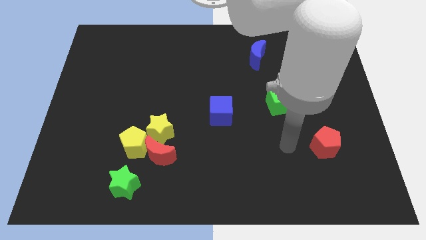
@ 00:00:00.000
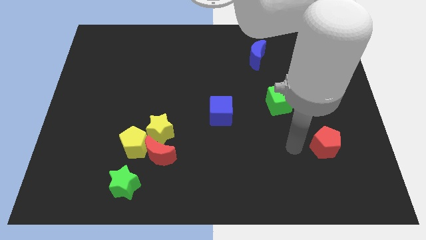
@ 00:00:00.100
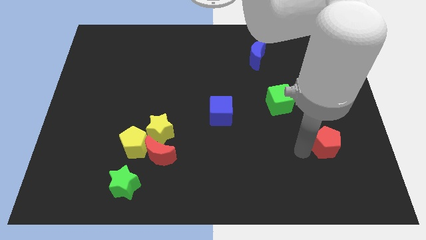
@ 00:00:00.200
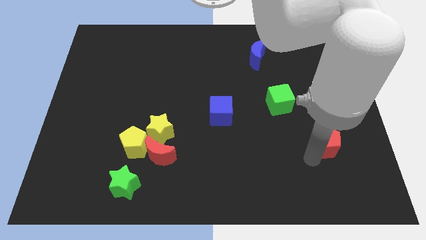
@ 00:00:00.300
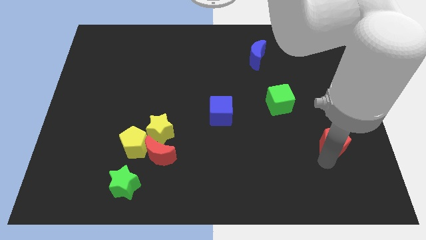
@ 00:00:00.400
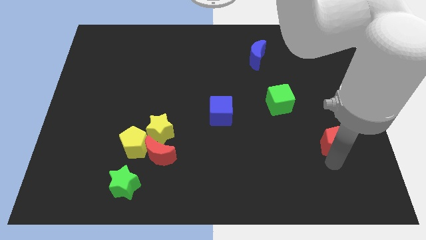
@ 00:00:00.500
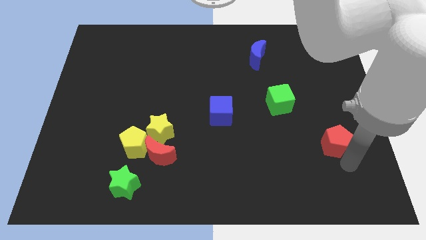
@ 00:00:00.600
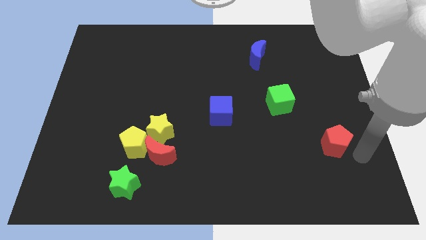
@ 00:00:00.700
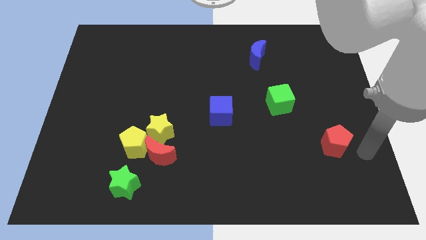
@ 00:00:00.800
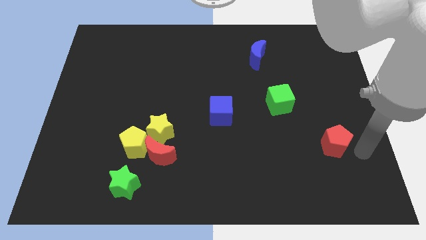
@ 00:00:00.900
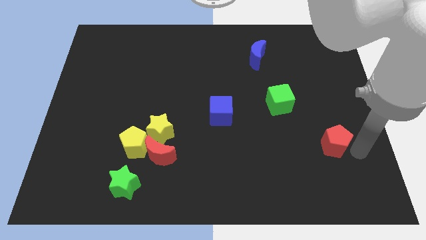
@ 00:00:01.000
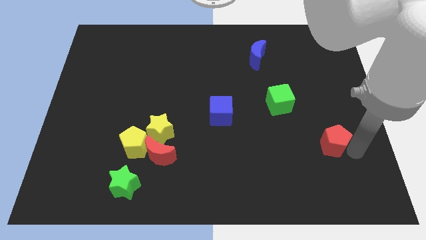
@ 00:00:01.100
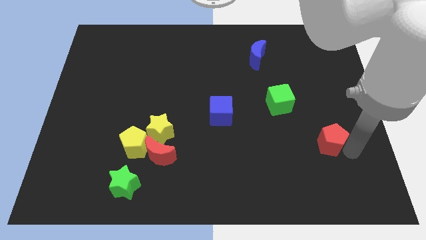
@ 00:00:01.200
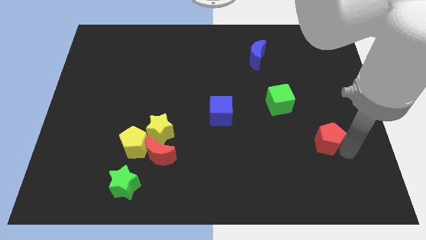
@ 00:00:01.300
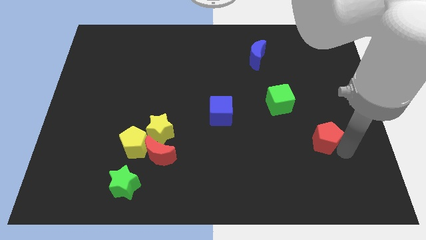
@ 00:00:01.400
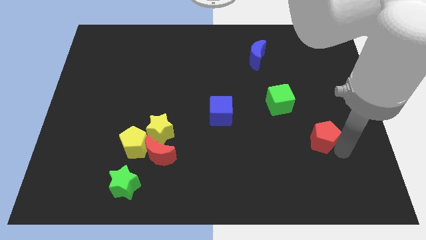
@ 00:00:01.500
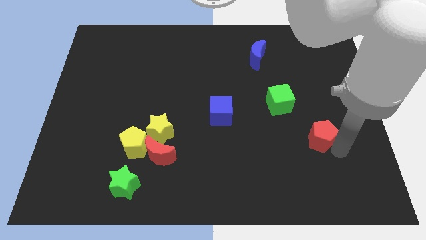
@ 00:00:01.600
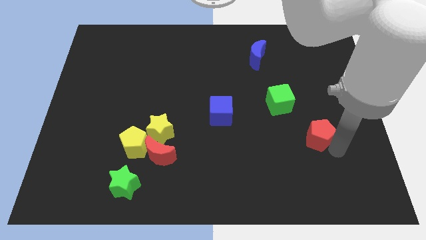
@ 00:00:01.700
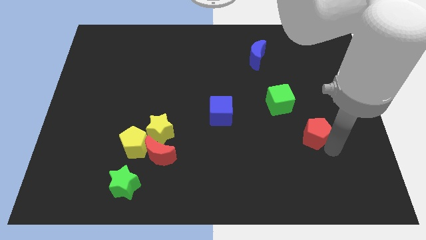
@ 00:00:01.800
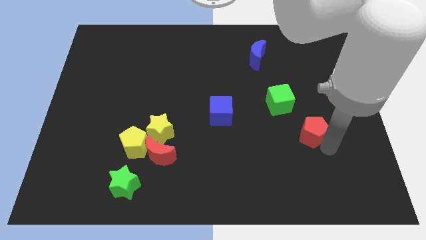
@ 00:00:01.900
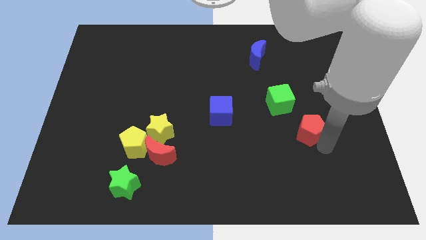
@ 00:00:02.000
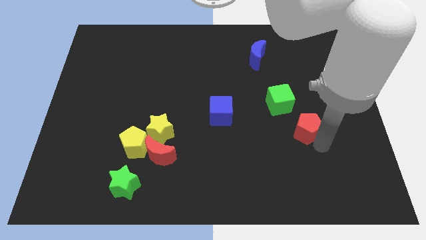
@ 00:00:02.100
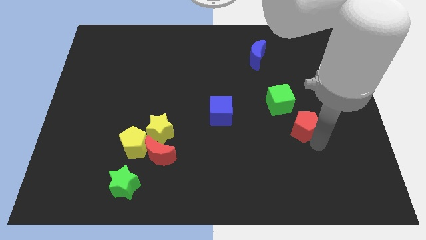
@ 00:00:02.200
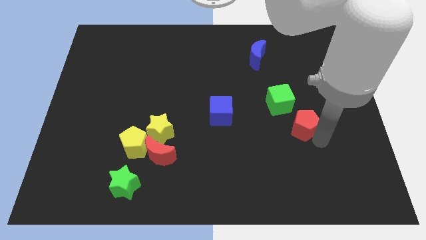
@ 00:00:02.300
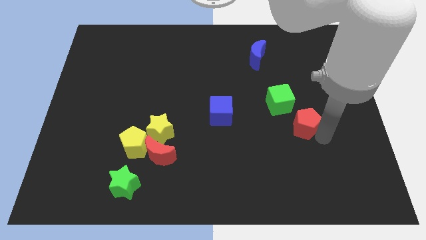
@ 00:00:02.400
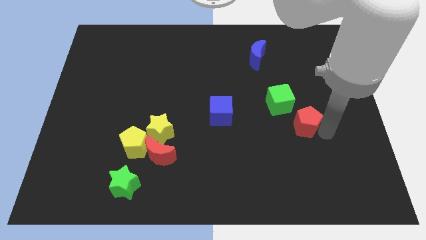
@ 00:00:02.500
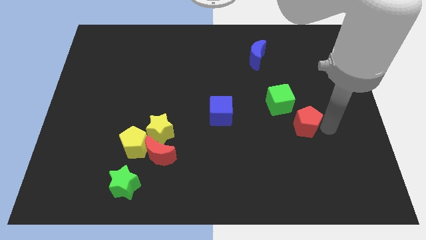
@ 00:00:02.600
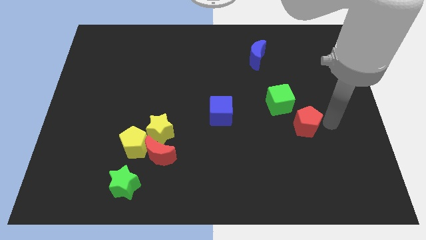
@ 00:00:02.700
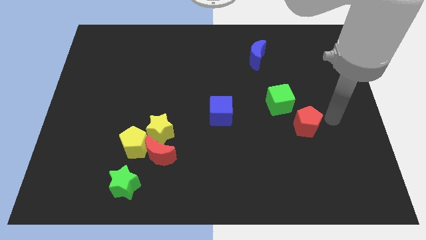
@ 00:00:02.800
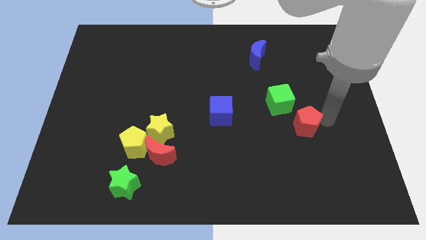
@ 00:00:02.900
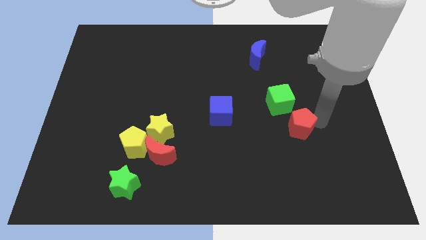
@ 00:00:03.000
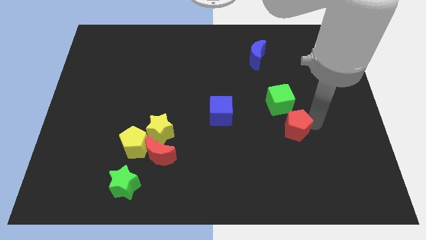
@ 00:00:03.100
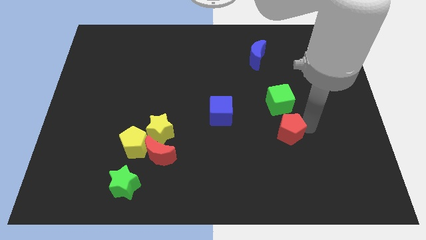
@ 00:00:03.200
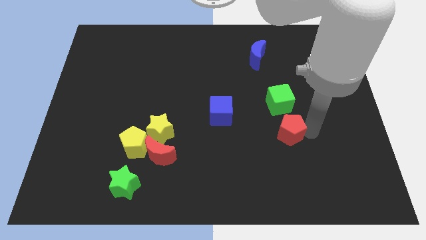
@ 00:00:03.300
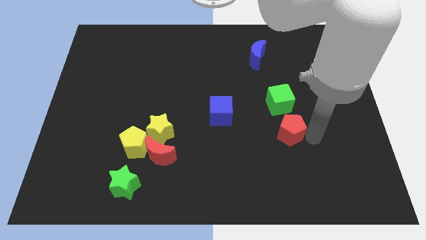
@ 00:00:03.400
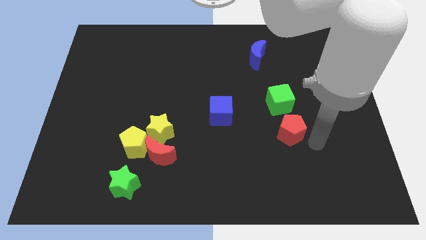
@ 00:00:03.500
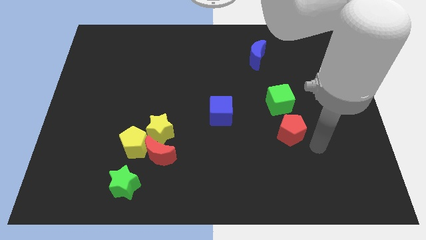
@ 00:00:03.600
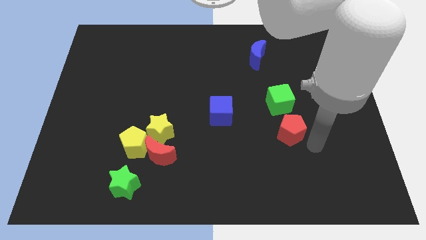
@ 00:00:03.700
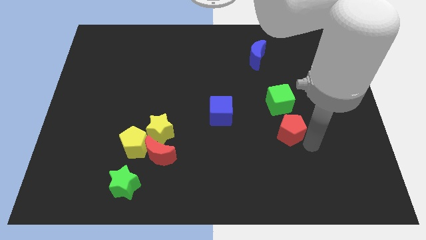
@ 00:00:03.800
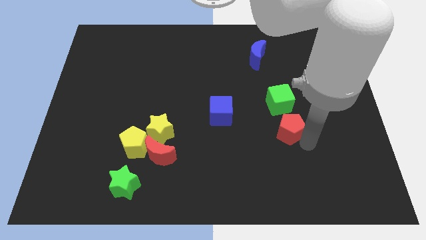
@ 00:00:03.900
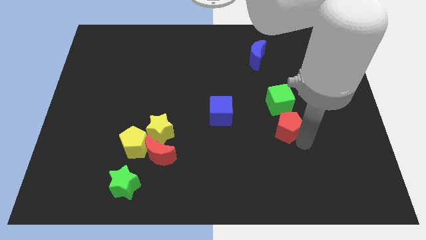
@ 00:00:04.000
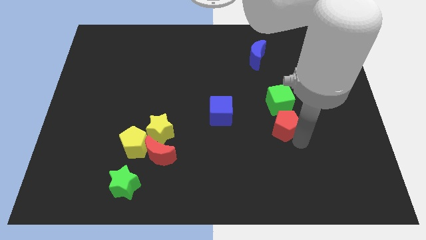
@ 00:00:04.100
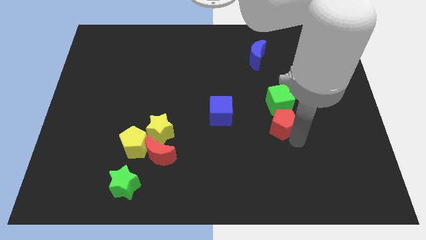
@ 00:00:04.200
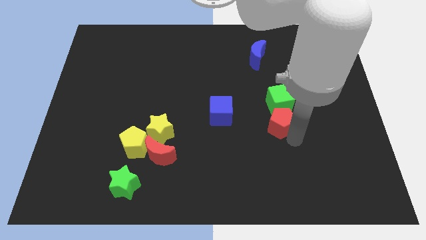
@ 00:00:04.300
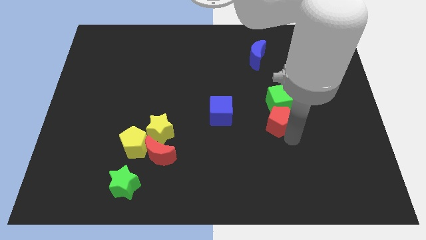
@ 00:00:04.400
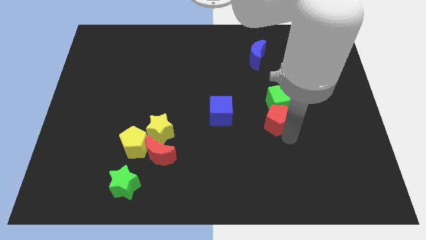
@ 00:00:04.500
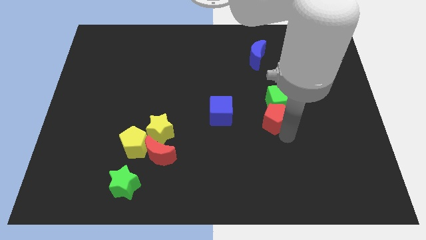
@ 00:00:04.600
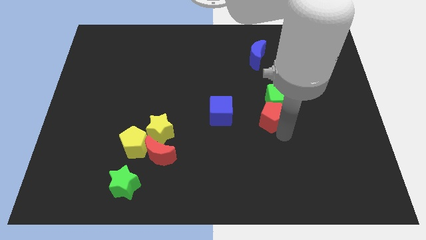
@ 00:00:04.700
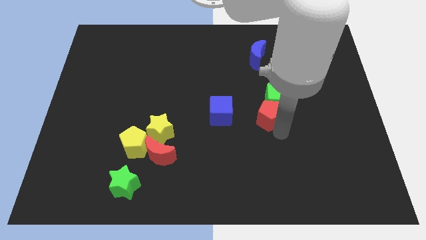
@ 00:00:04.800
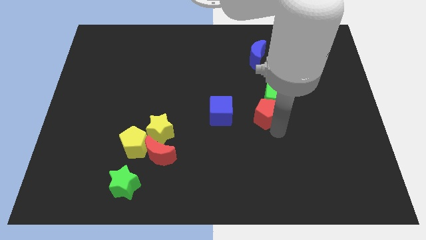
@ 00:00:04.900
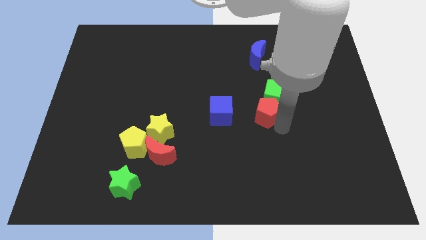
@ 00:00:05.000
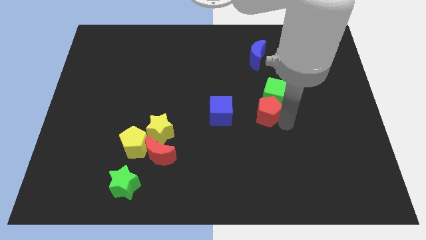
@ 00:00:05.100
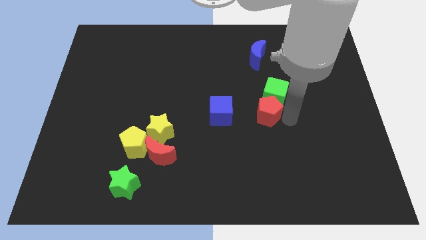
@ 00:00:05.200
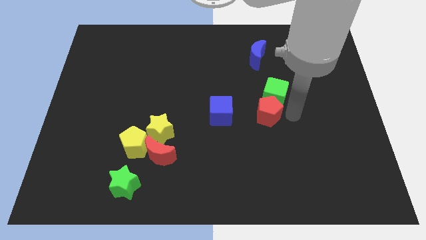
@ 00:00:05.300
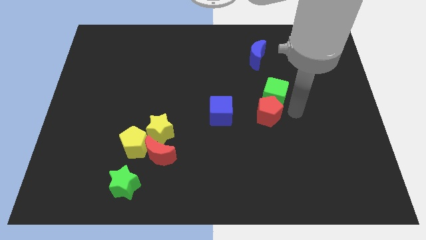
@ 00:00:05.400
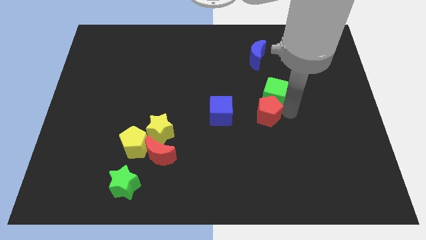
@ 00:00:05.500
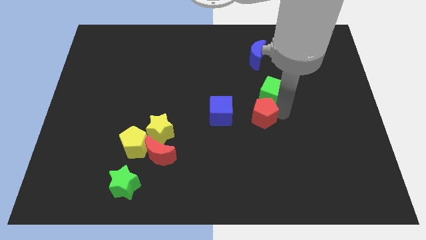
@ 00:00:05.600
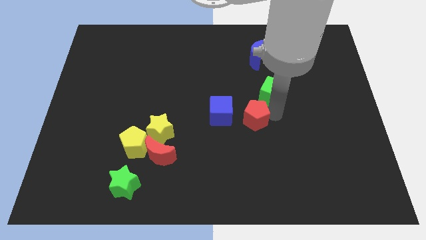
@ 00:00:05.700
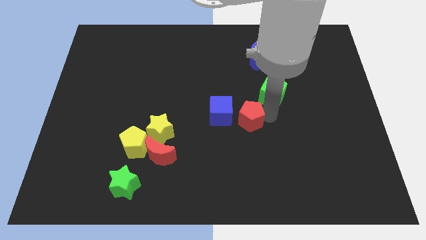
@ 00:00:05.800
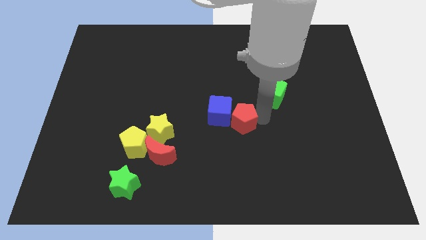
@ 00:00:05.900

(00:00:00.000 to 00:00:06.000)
slide the red pentagon towards the blue cube

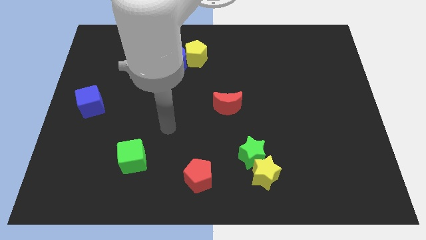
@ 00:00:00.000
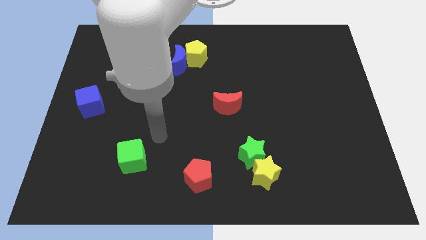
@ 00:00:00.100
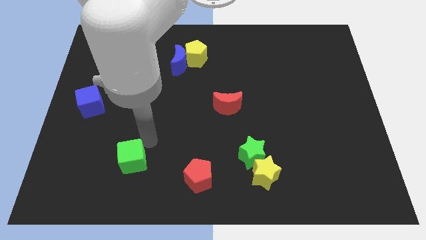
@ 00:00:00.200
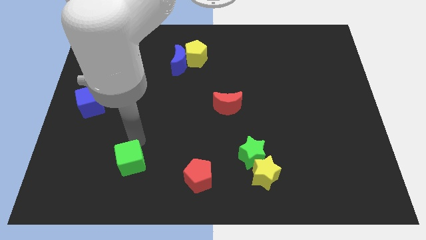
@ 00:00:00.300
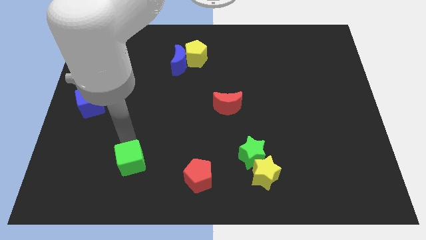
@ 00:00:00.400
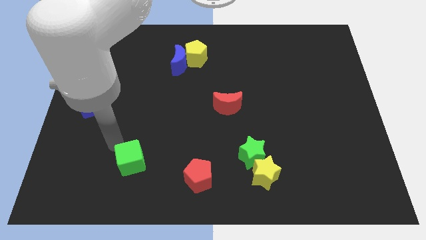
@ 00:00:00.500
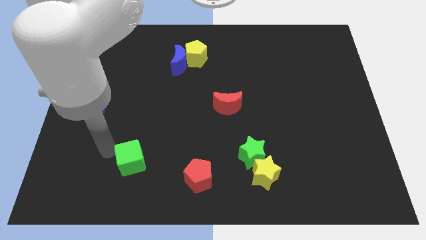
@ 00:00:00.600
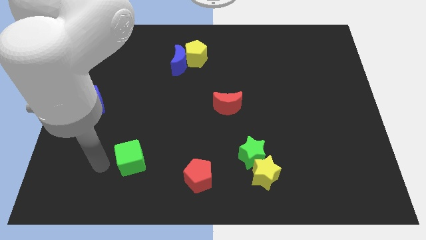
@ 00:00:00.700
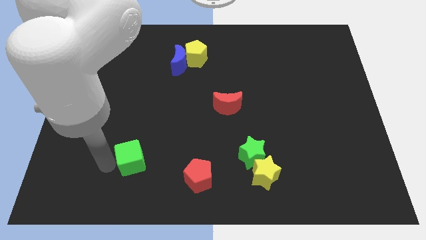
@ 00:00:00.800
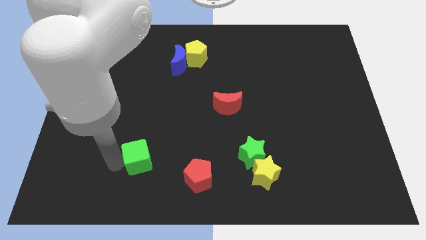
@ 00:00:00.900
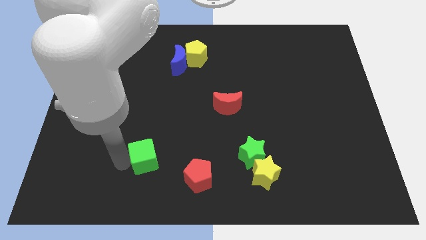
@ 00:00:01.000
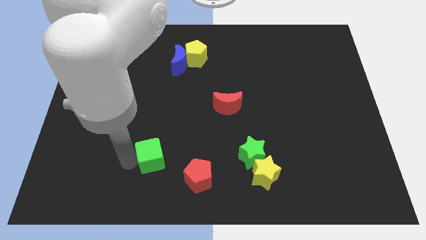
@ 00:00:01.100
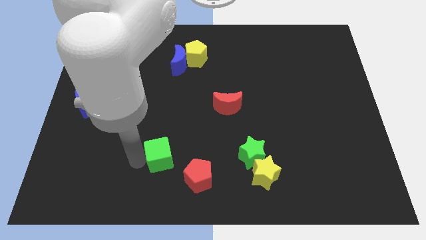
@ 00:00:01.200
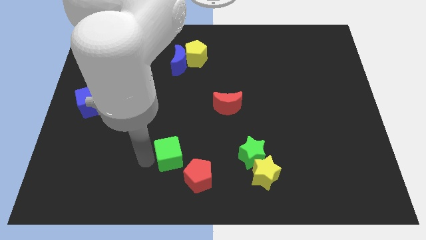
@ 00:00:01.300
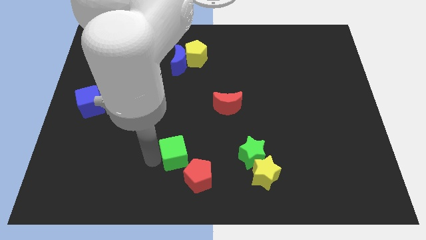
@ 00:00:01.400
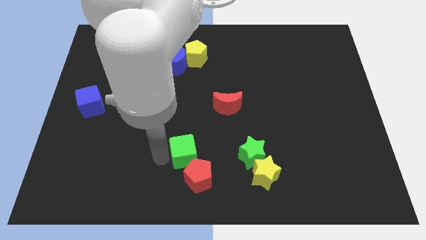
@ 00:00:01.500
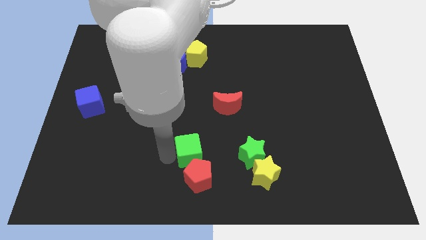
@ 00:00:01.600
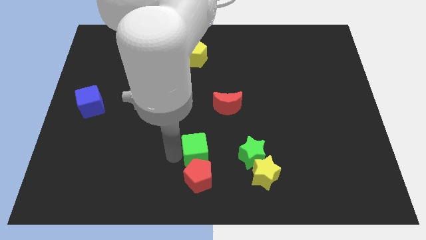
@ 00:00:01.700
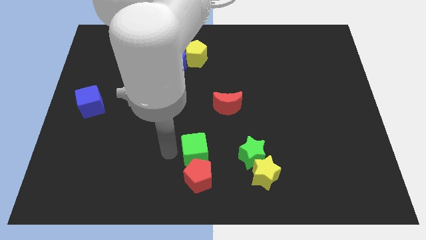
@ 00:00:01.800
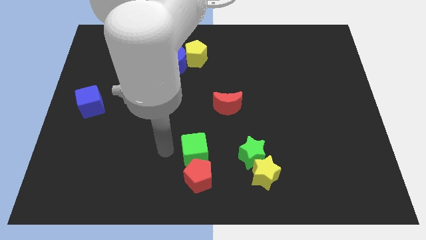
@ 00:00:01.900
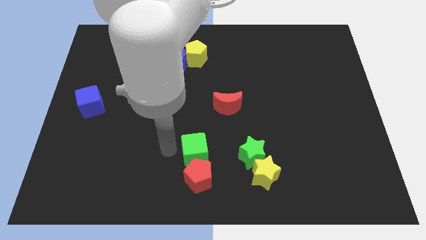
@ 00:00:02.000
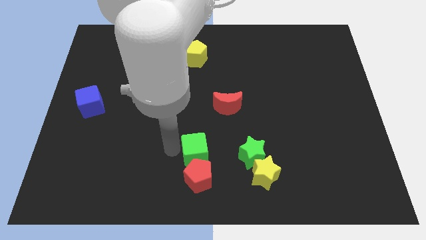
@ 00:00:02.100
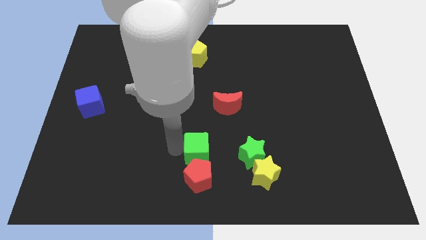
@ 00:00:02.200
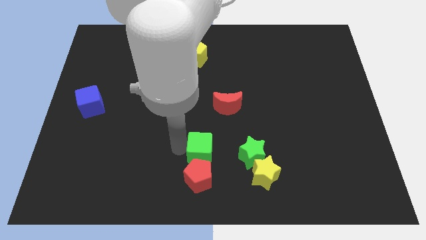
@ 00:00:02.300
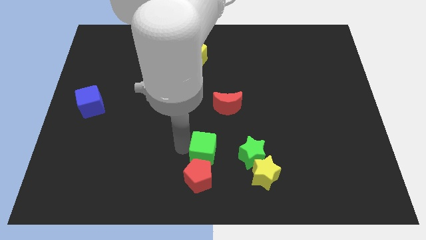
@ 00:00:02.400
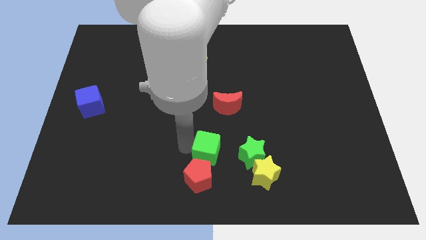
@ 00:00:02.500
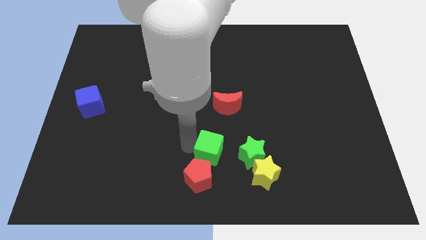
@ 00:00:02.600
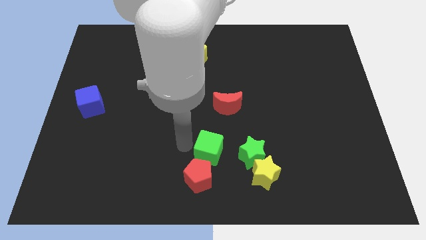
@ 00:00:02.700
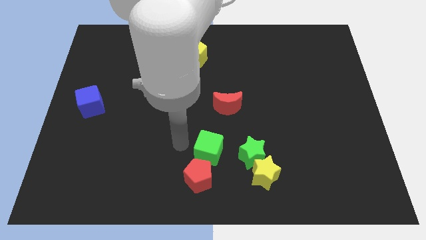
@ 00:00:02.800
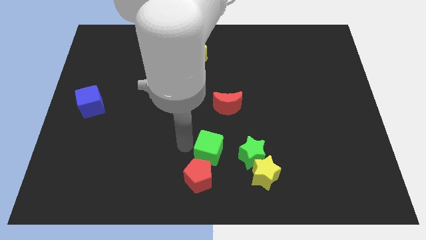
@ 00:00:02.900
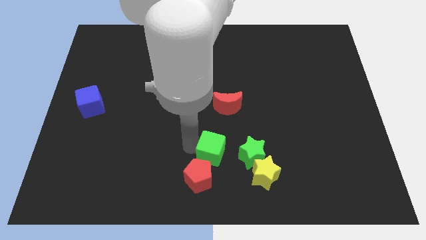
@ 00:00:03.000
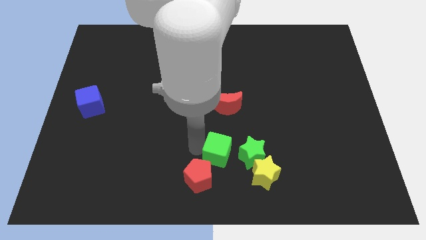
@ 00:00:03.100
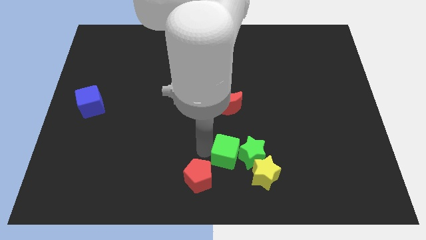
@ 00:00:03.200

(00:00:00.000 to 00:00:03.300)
slide the green cube next to the green star
